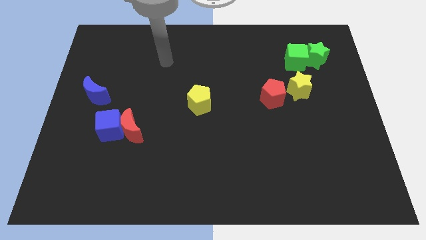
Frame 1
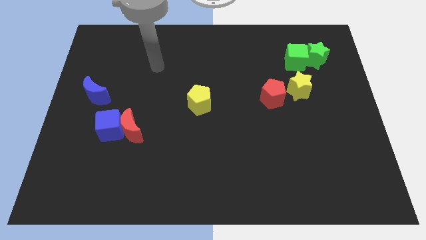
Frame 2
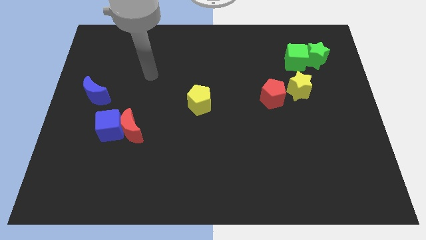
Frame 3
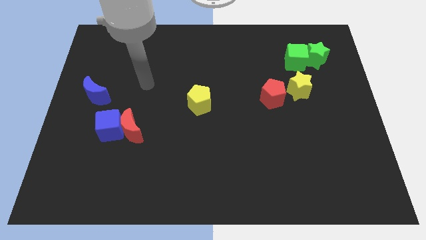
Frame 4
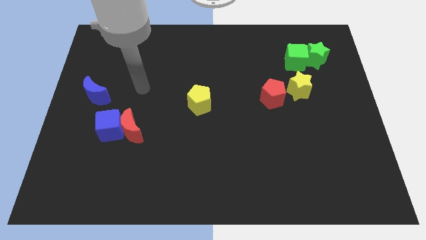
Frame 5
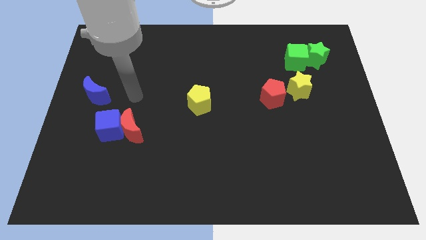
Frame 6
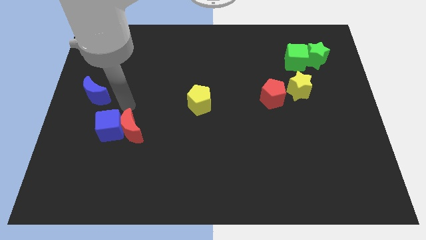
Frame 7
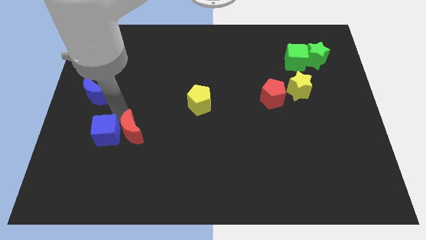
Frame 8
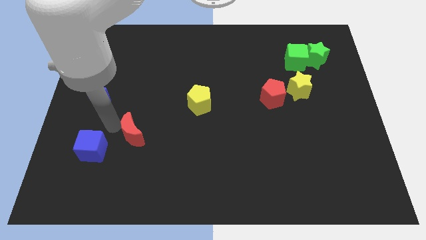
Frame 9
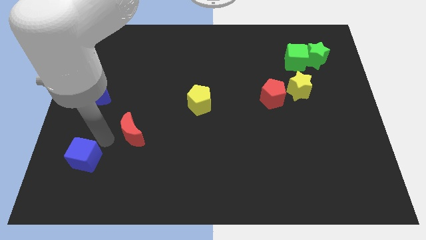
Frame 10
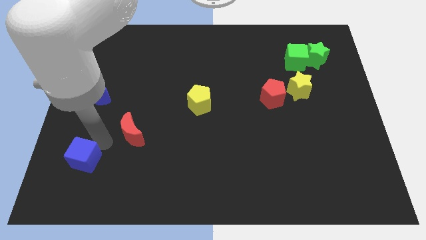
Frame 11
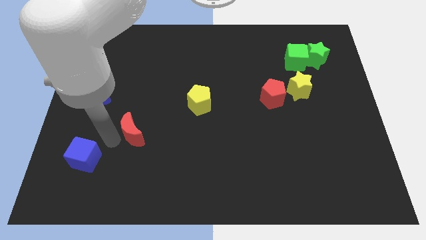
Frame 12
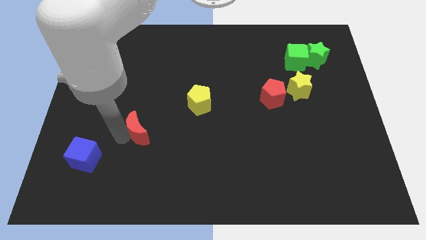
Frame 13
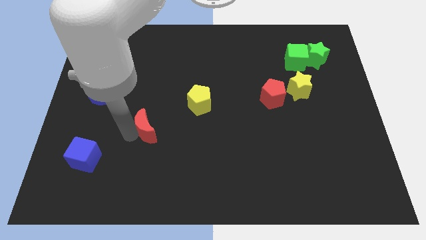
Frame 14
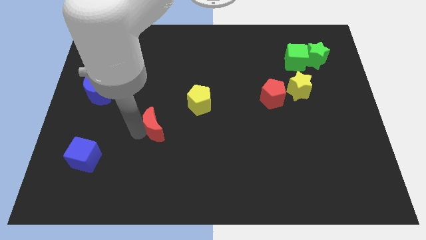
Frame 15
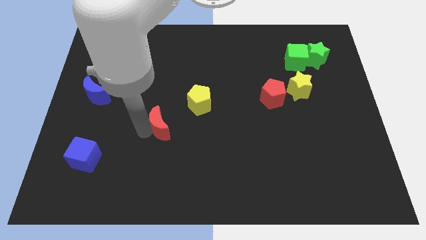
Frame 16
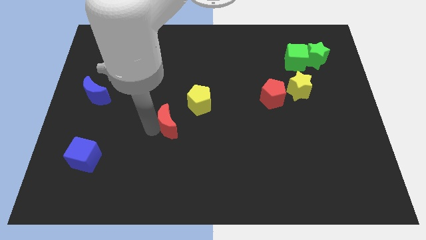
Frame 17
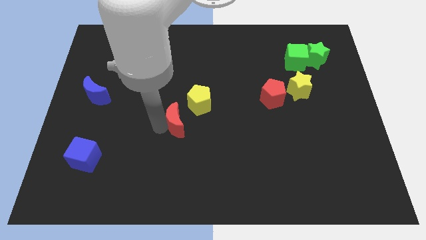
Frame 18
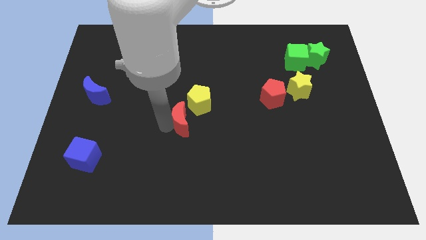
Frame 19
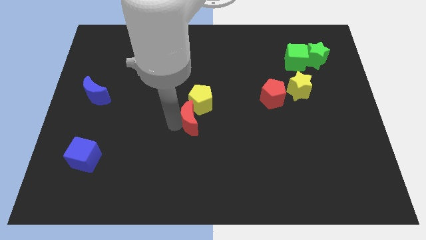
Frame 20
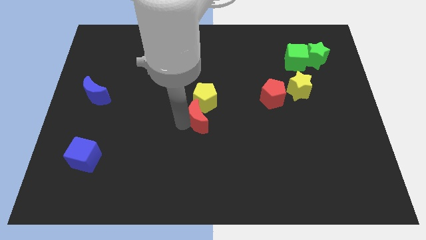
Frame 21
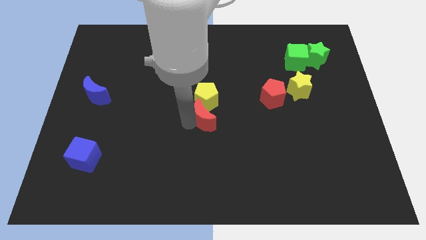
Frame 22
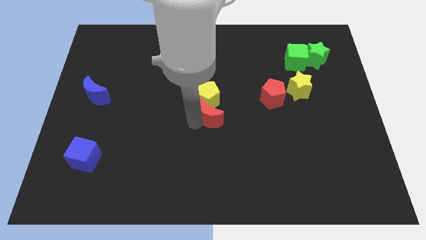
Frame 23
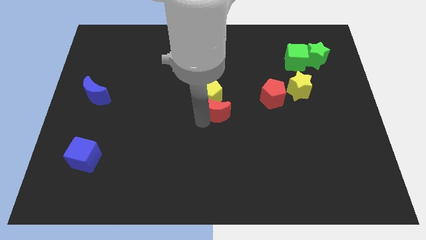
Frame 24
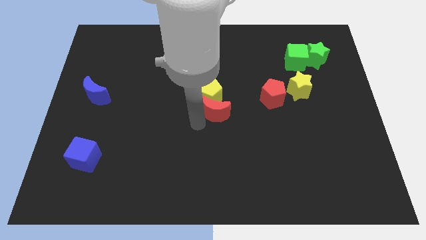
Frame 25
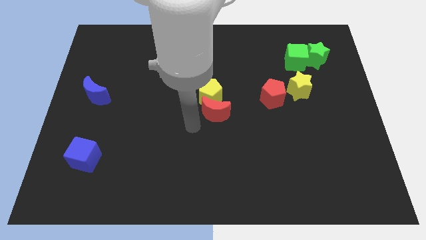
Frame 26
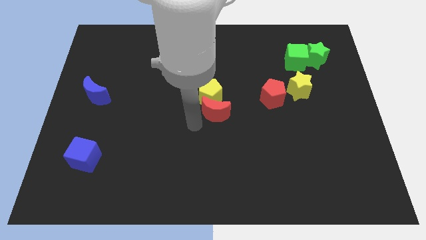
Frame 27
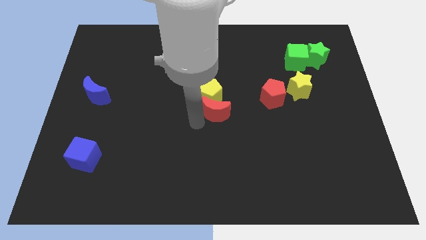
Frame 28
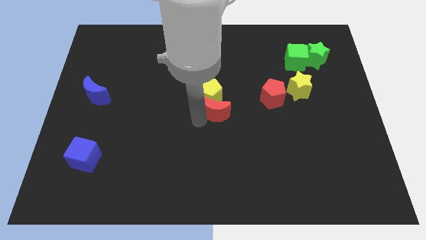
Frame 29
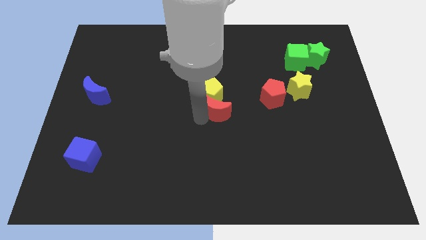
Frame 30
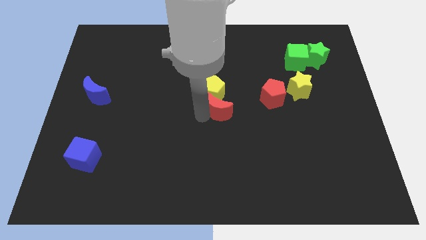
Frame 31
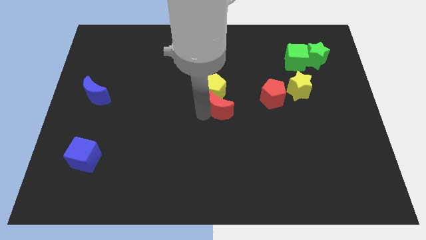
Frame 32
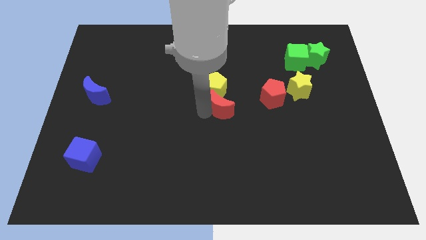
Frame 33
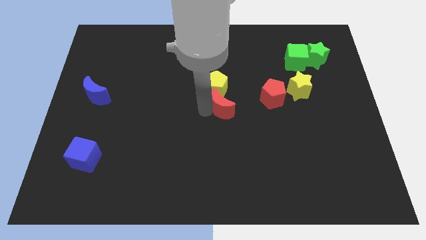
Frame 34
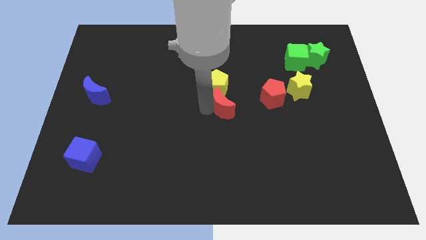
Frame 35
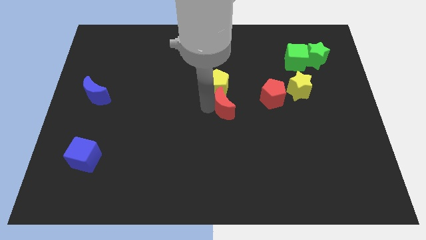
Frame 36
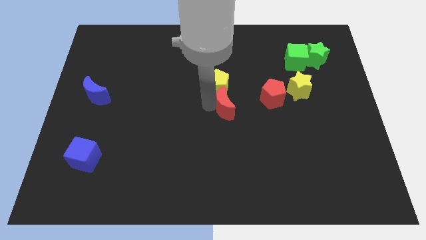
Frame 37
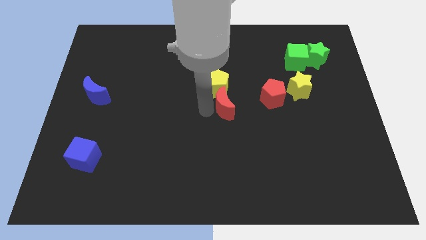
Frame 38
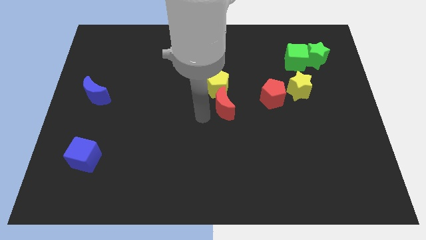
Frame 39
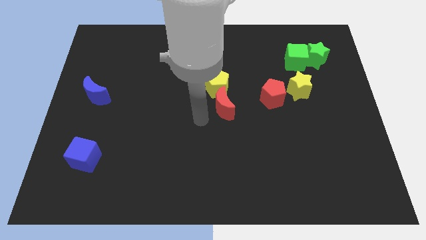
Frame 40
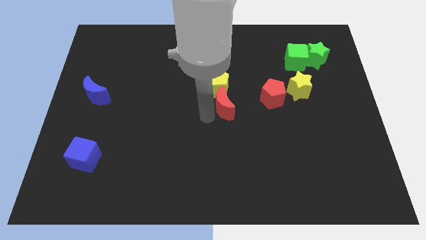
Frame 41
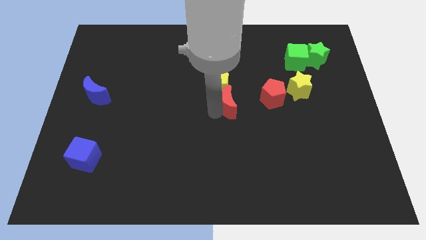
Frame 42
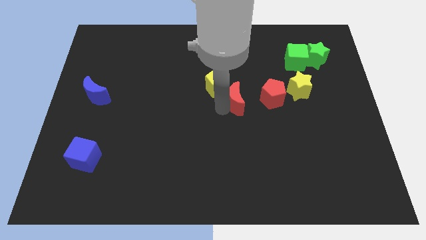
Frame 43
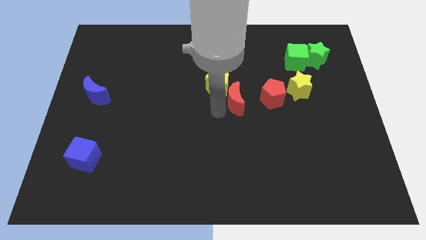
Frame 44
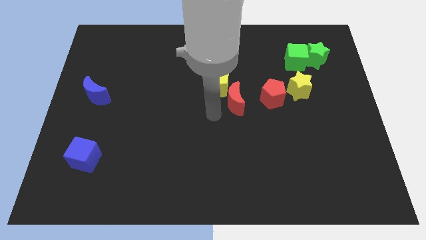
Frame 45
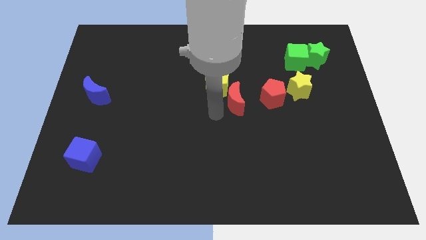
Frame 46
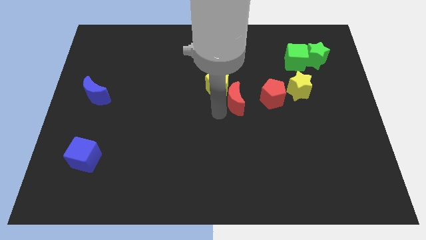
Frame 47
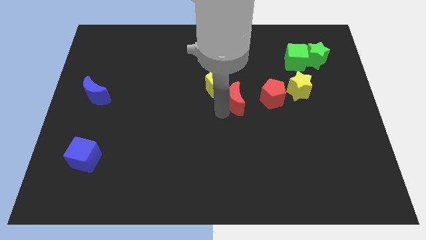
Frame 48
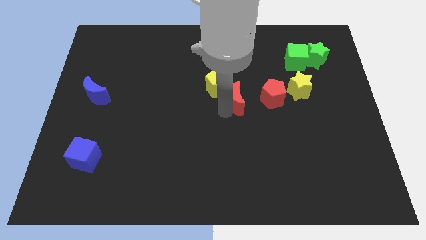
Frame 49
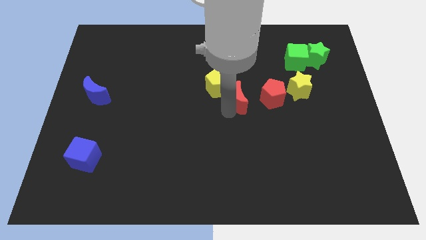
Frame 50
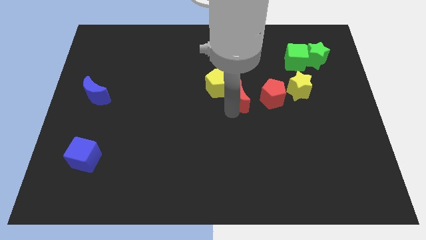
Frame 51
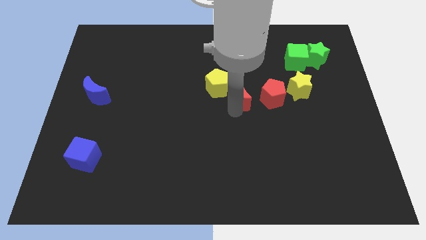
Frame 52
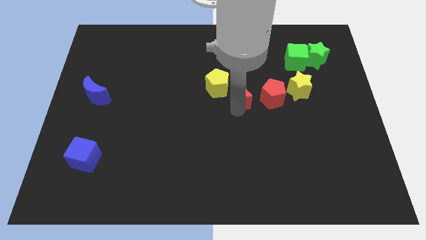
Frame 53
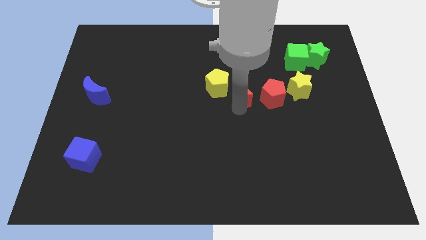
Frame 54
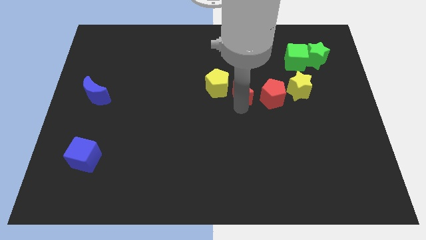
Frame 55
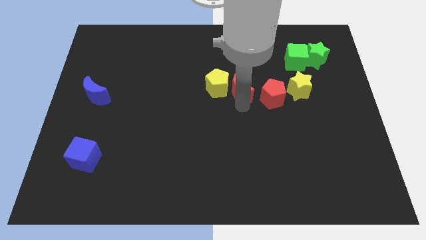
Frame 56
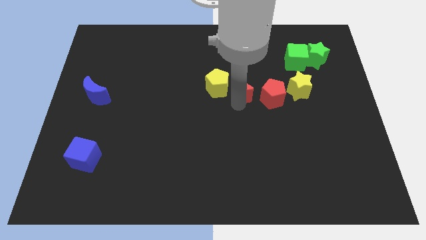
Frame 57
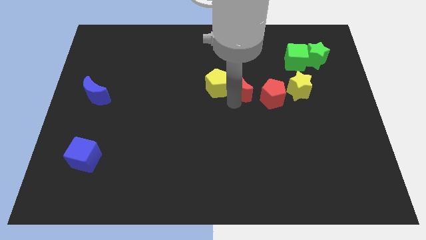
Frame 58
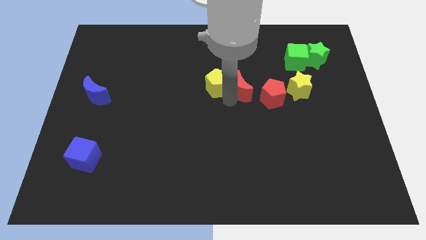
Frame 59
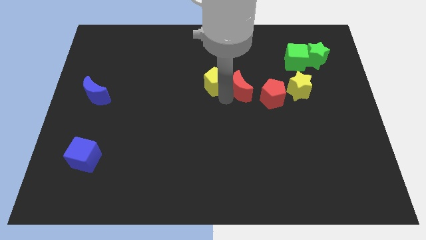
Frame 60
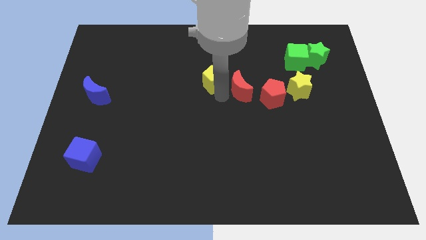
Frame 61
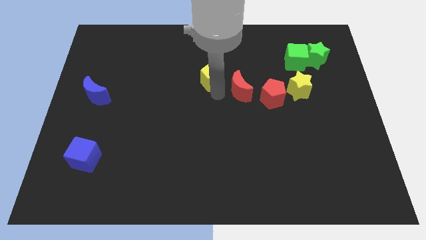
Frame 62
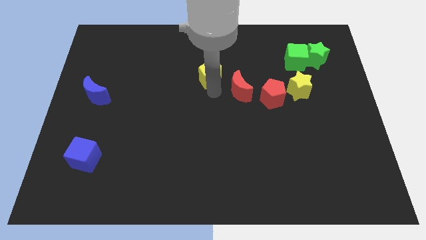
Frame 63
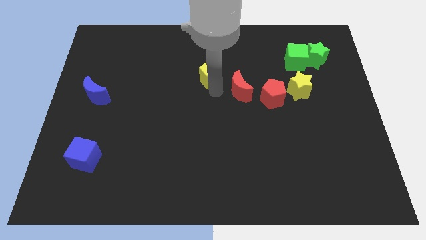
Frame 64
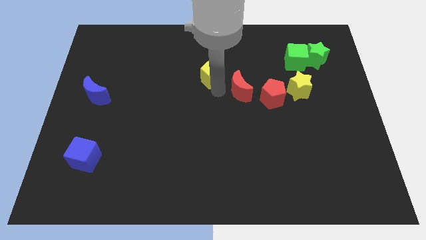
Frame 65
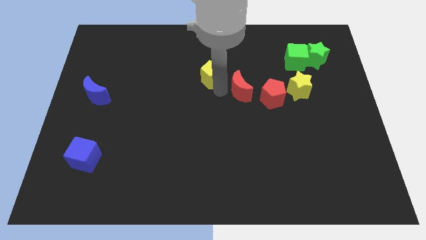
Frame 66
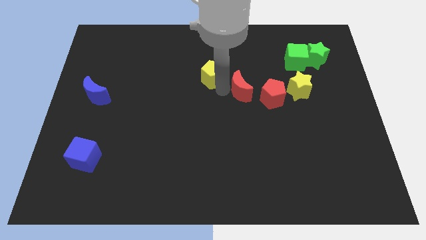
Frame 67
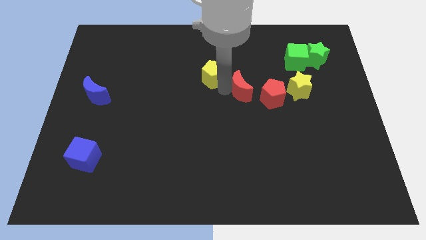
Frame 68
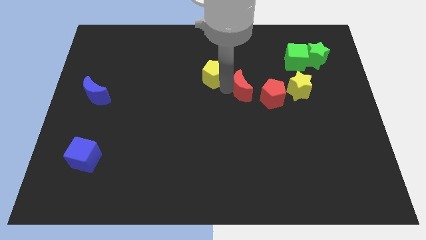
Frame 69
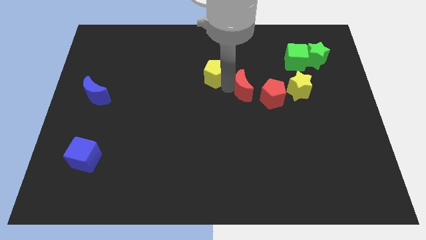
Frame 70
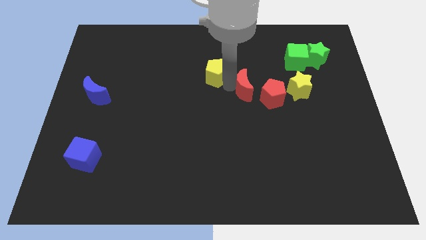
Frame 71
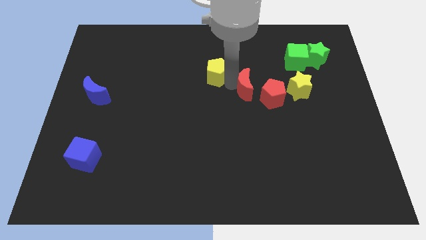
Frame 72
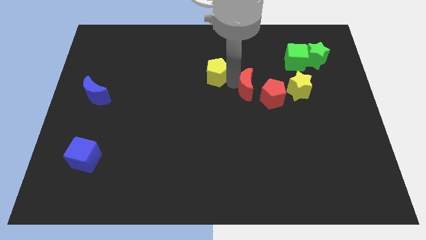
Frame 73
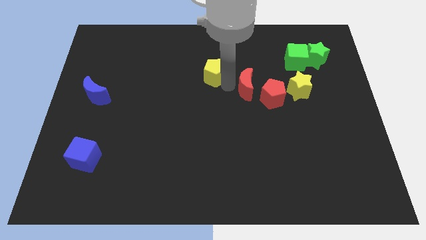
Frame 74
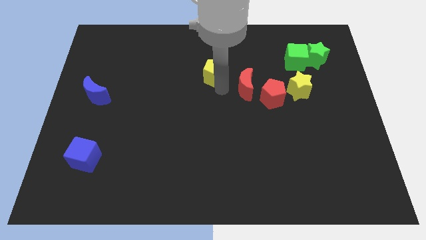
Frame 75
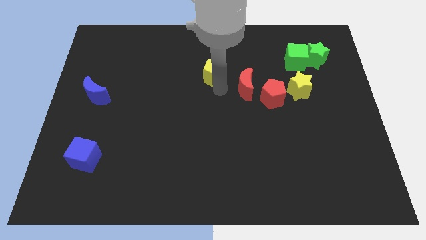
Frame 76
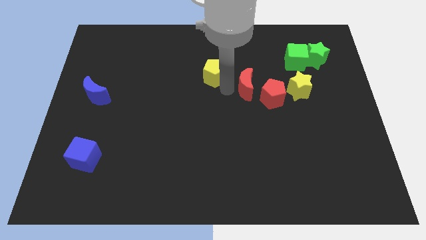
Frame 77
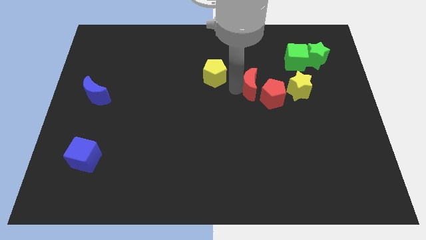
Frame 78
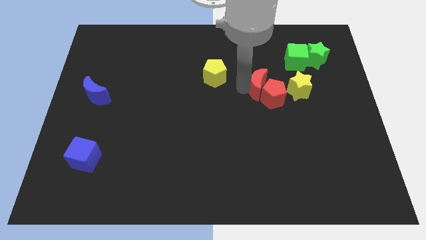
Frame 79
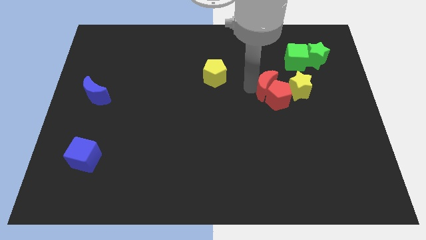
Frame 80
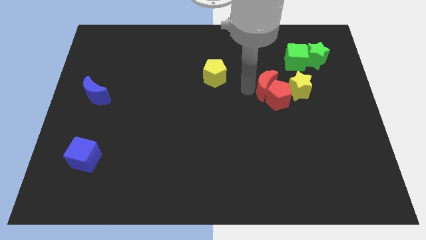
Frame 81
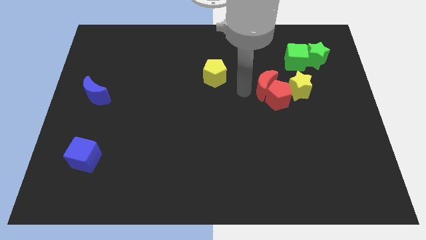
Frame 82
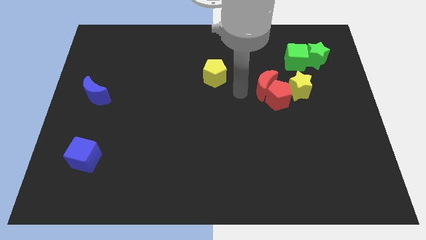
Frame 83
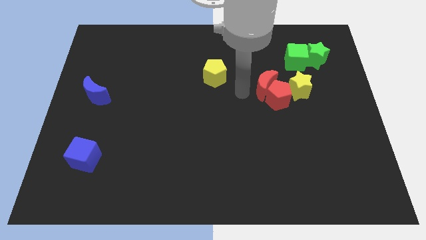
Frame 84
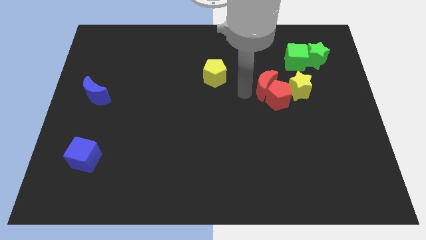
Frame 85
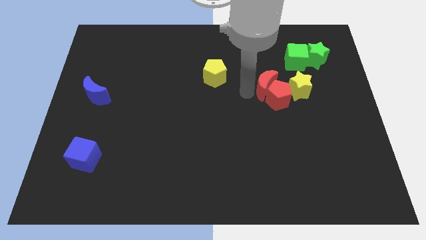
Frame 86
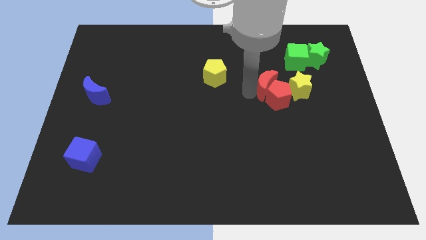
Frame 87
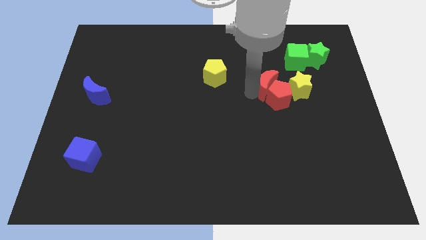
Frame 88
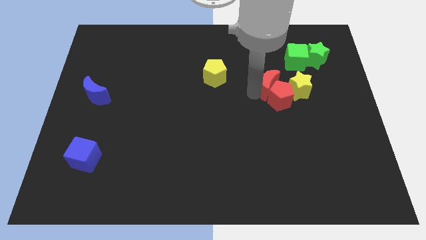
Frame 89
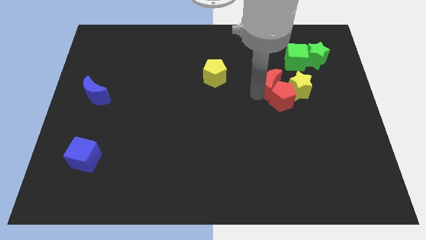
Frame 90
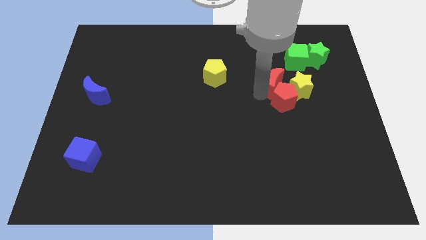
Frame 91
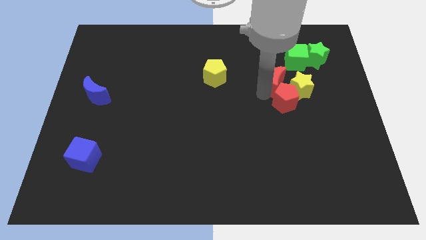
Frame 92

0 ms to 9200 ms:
slide the red moon close to the yellow star
